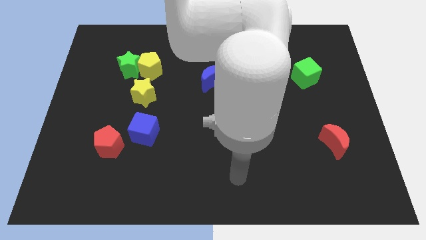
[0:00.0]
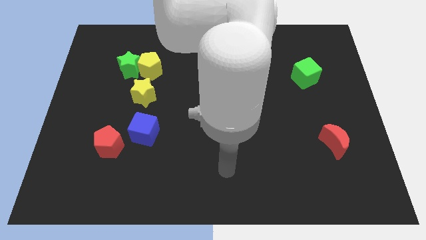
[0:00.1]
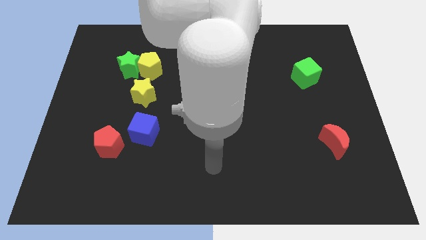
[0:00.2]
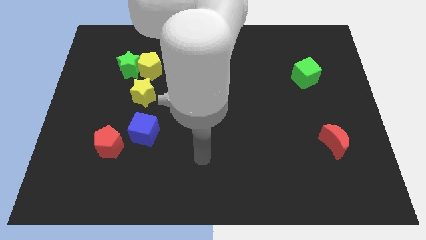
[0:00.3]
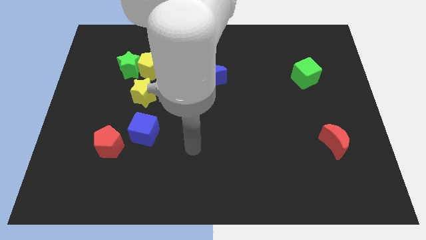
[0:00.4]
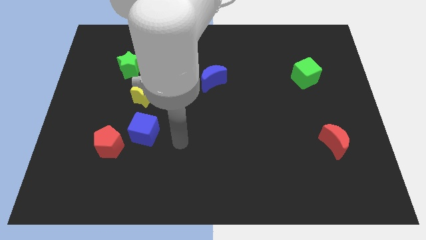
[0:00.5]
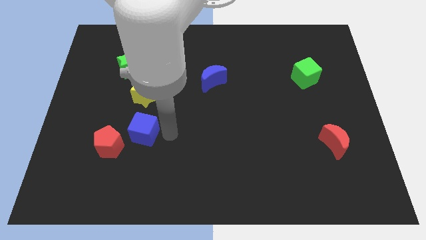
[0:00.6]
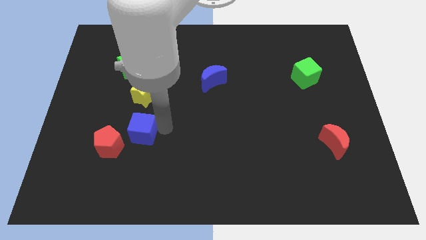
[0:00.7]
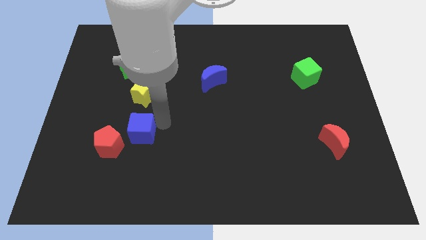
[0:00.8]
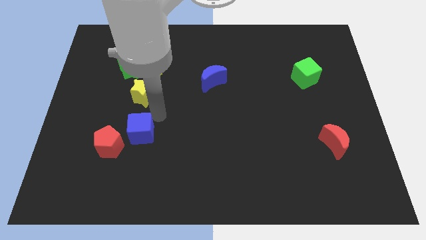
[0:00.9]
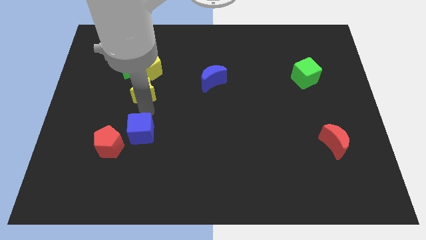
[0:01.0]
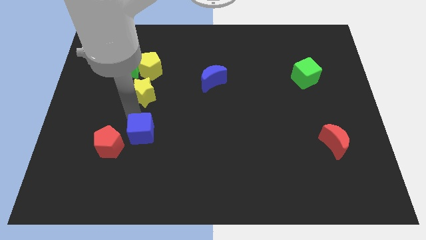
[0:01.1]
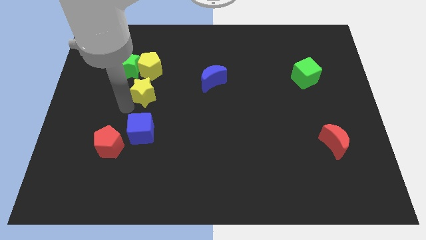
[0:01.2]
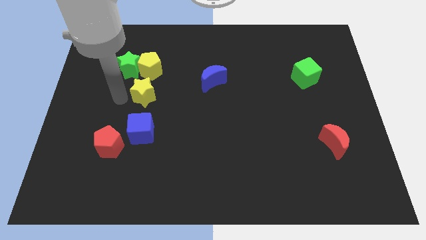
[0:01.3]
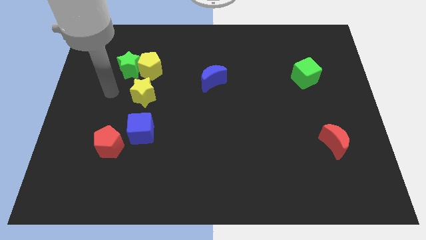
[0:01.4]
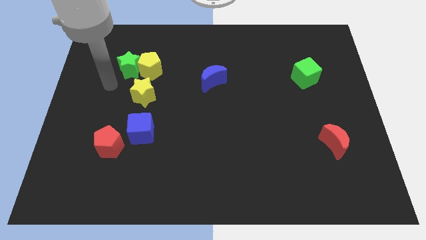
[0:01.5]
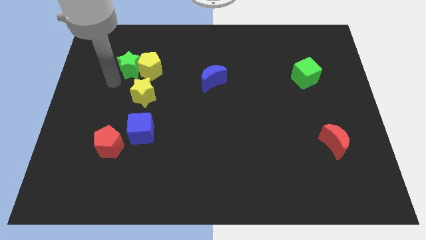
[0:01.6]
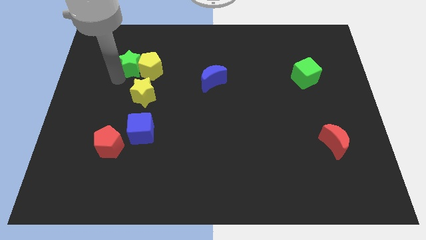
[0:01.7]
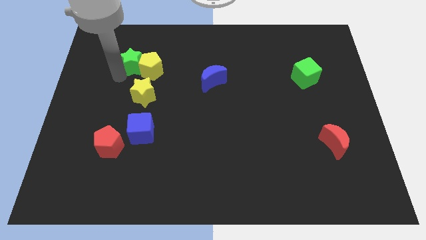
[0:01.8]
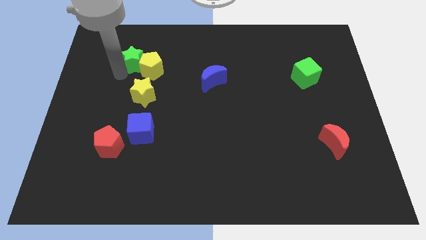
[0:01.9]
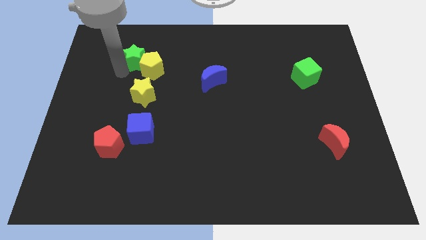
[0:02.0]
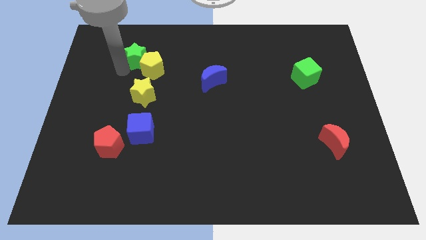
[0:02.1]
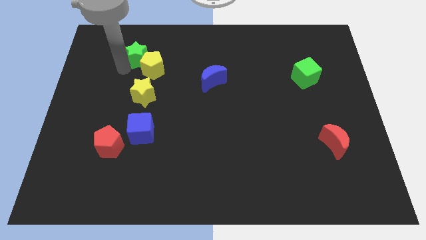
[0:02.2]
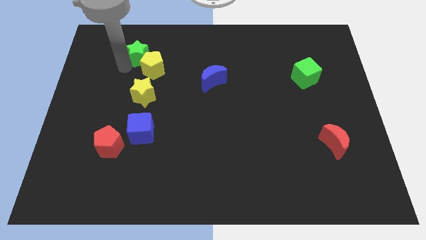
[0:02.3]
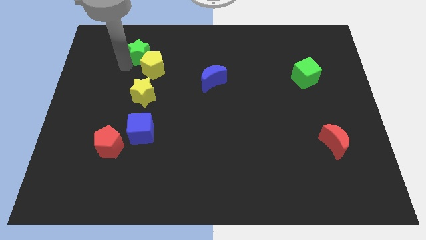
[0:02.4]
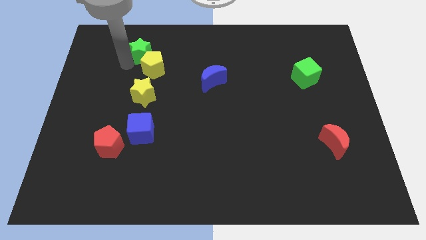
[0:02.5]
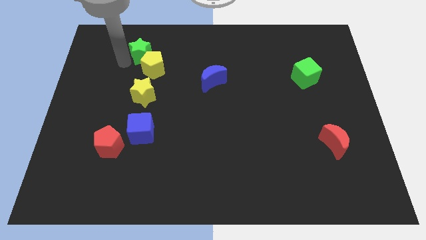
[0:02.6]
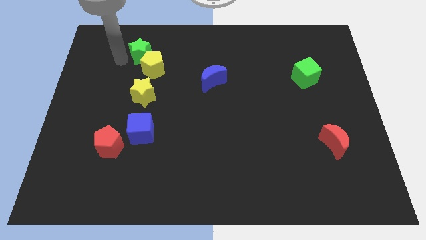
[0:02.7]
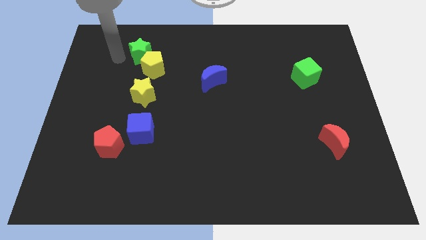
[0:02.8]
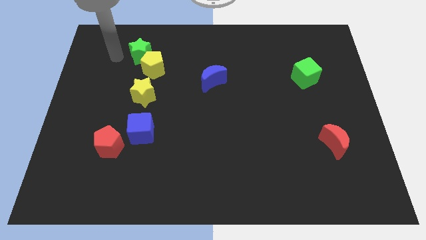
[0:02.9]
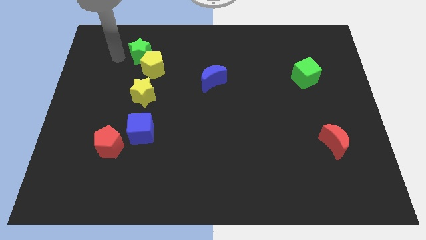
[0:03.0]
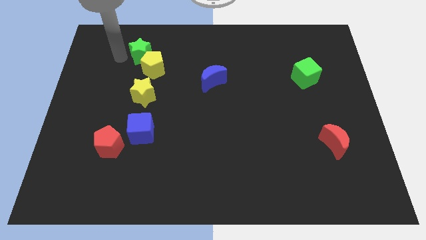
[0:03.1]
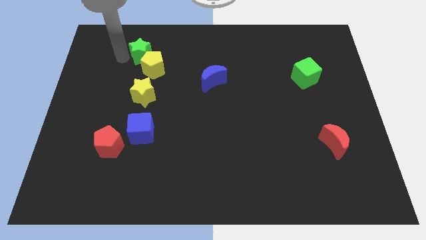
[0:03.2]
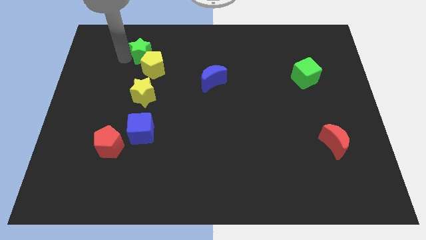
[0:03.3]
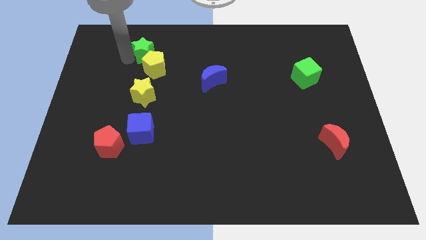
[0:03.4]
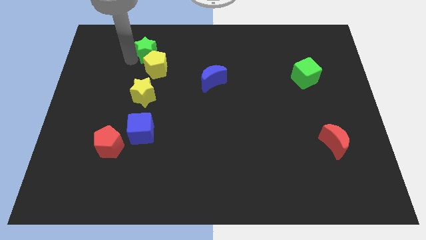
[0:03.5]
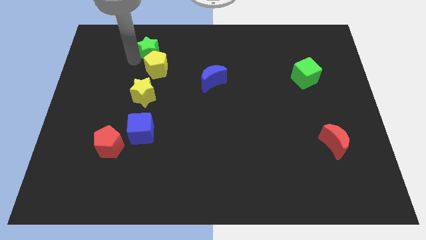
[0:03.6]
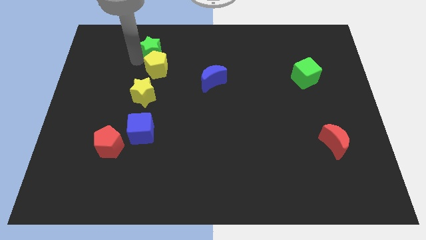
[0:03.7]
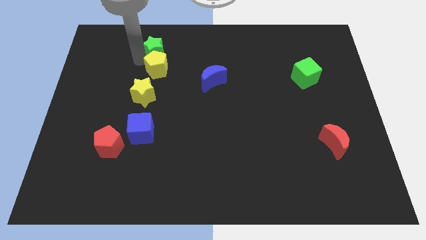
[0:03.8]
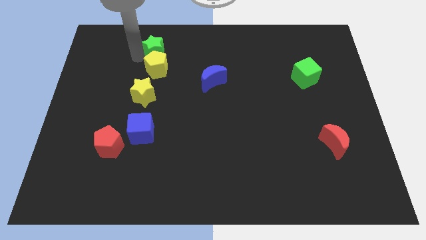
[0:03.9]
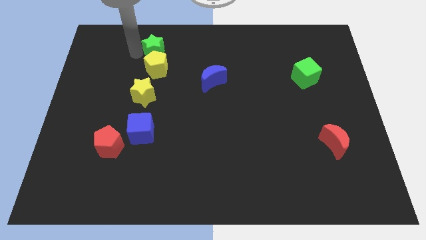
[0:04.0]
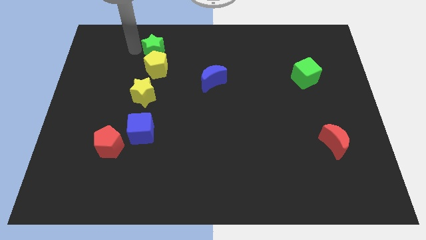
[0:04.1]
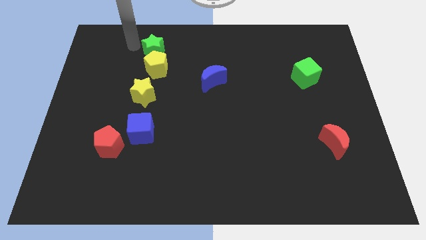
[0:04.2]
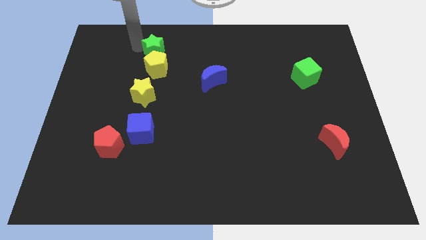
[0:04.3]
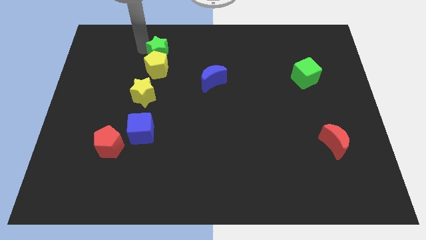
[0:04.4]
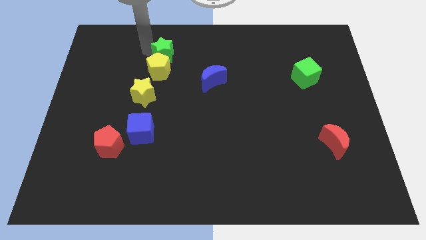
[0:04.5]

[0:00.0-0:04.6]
slightly slide the green star to the right

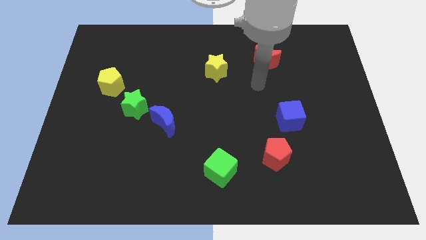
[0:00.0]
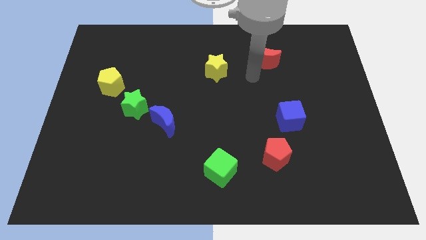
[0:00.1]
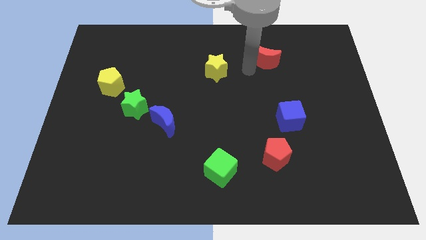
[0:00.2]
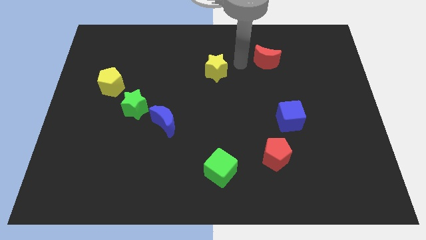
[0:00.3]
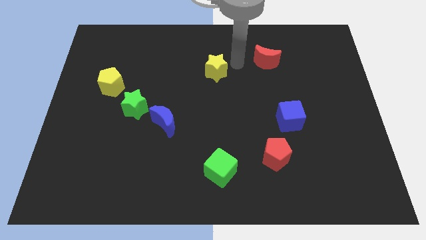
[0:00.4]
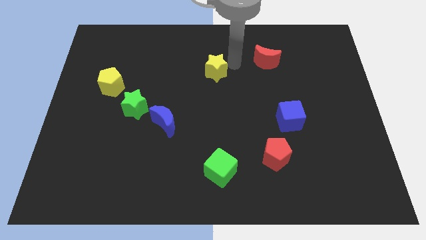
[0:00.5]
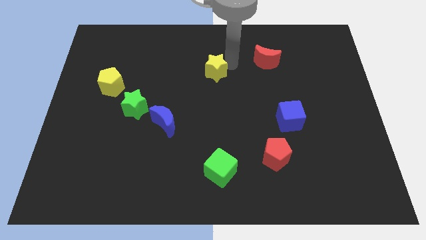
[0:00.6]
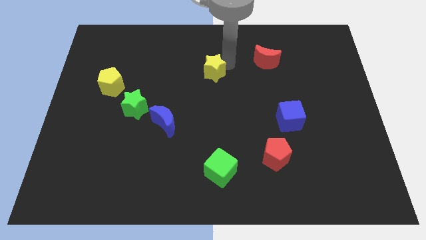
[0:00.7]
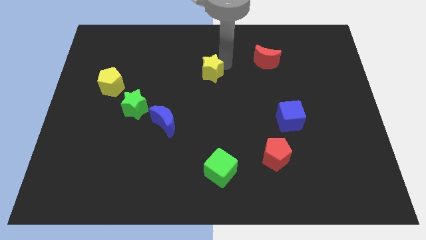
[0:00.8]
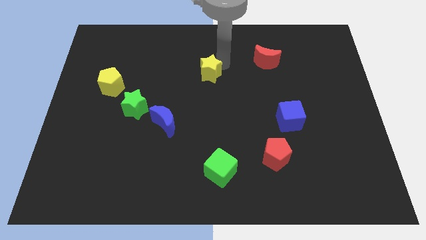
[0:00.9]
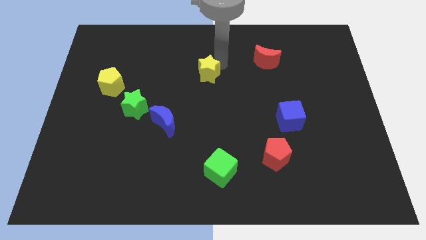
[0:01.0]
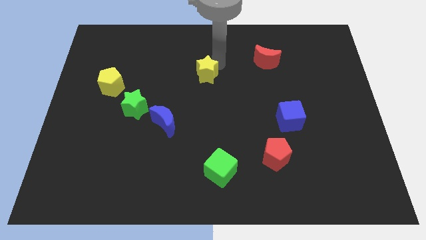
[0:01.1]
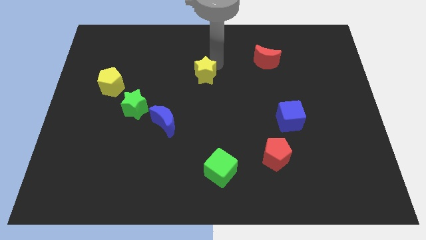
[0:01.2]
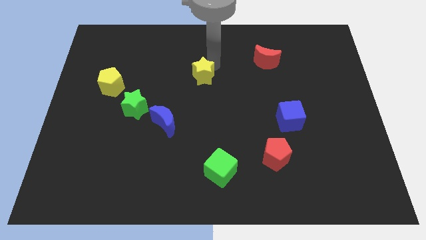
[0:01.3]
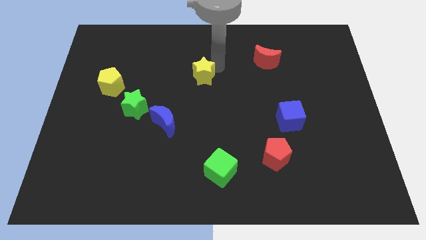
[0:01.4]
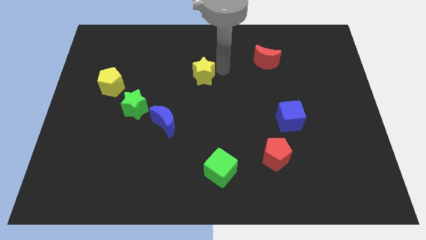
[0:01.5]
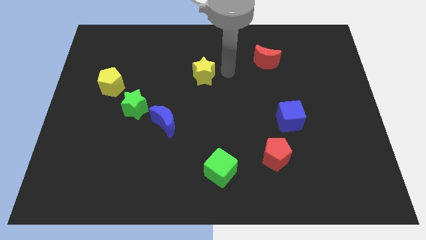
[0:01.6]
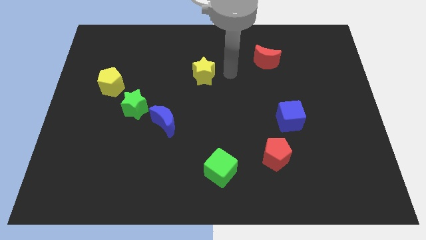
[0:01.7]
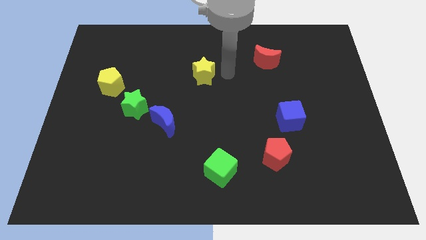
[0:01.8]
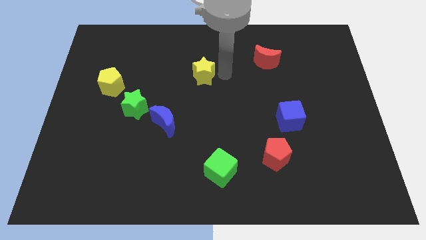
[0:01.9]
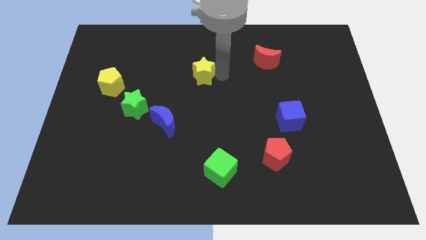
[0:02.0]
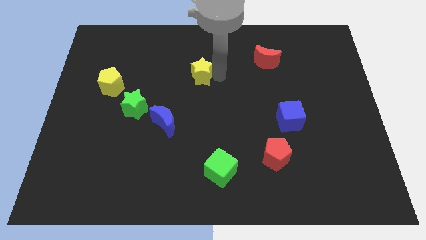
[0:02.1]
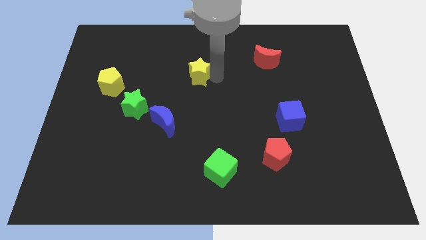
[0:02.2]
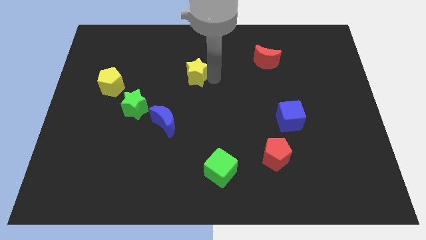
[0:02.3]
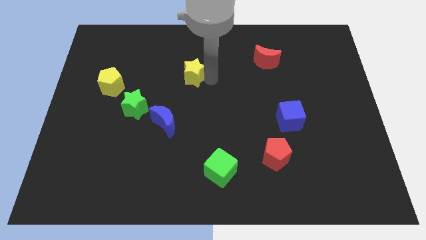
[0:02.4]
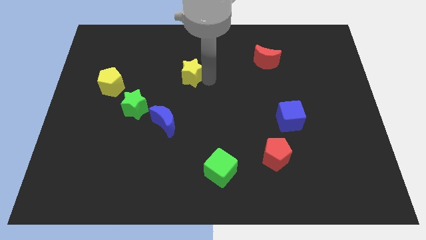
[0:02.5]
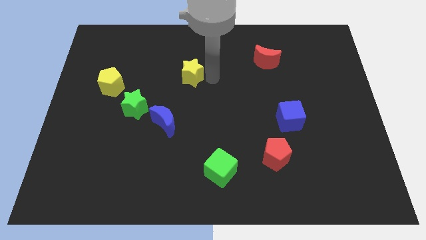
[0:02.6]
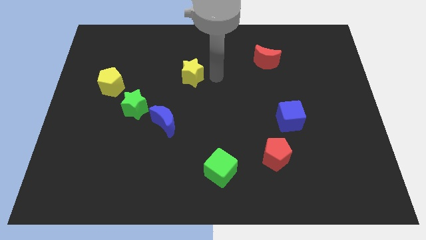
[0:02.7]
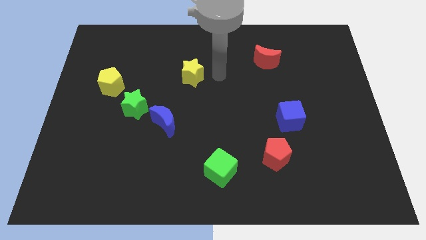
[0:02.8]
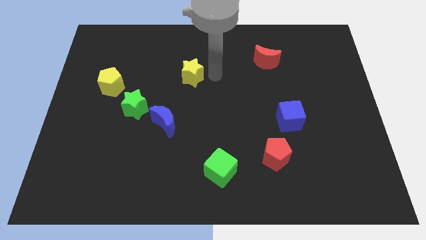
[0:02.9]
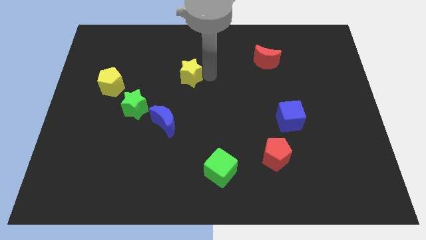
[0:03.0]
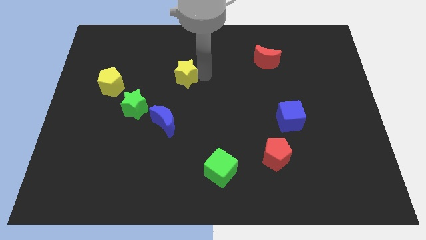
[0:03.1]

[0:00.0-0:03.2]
move the yellow star to the left somewhat

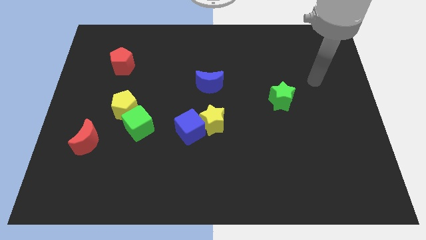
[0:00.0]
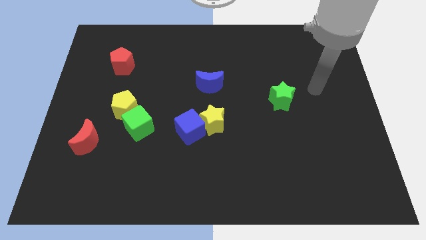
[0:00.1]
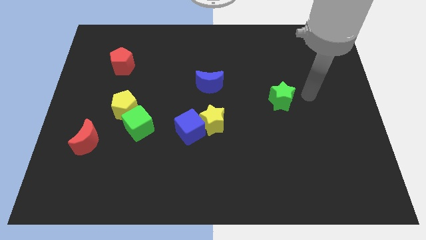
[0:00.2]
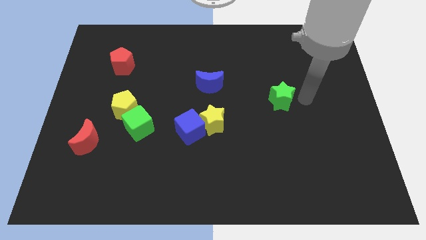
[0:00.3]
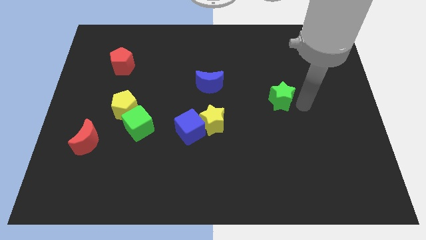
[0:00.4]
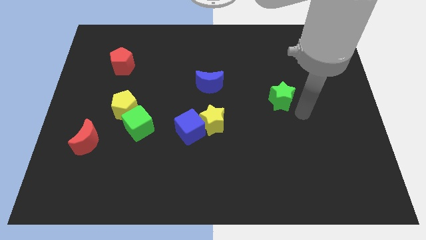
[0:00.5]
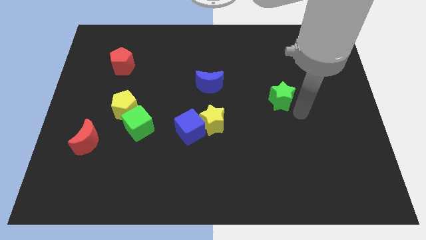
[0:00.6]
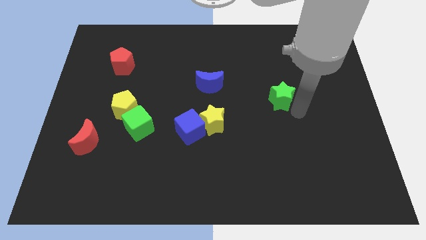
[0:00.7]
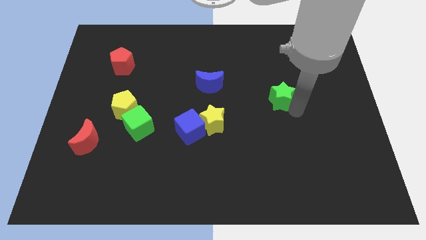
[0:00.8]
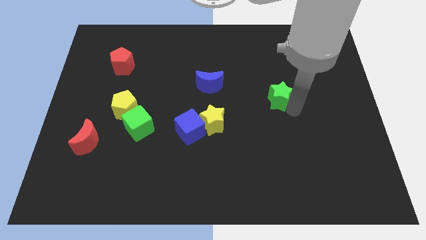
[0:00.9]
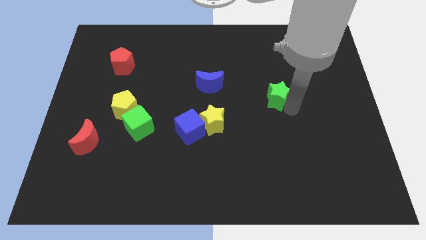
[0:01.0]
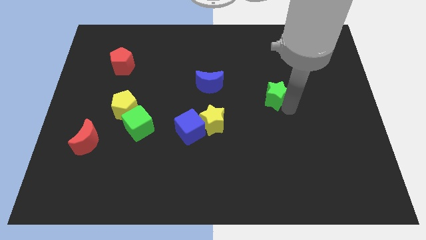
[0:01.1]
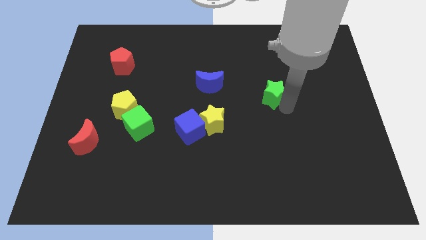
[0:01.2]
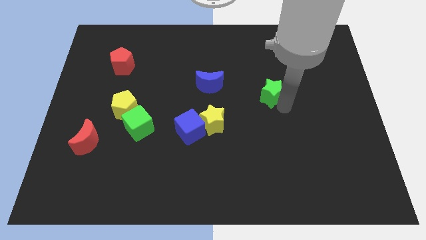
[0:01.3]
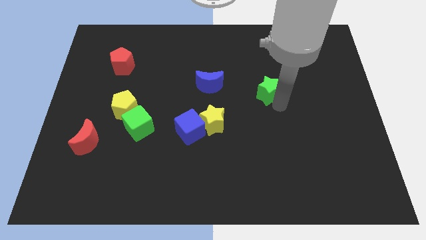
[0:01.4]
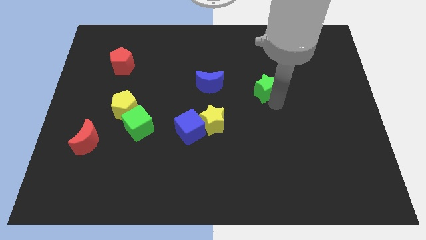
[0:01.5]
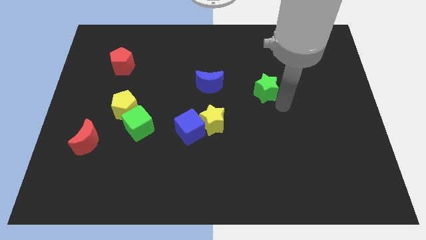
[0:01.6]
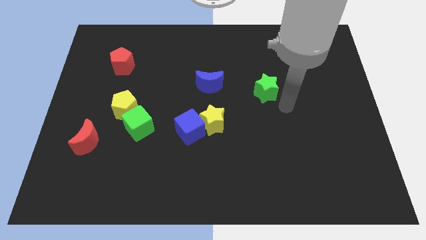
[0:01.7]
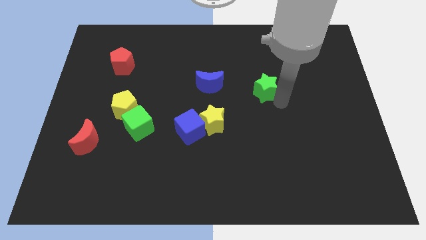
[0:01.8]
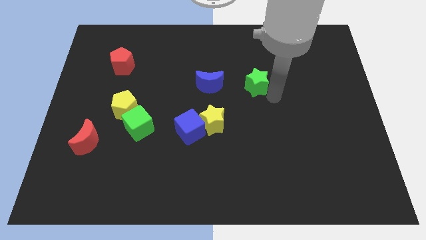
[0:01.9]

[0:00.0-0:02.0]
push the green star a little diagonally upwards and to the left
